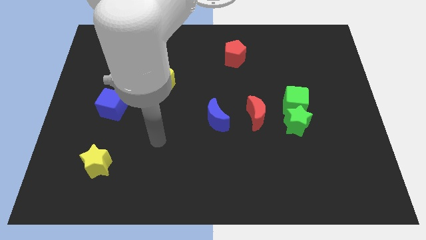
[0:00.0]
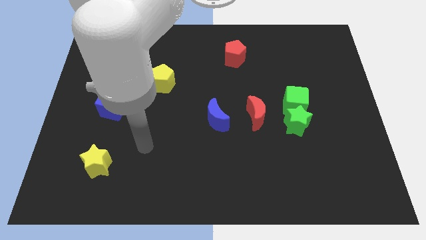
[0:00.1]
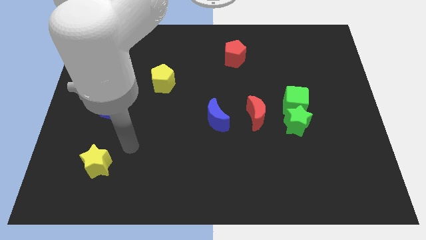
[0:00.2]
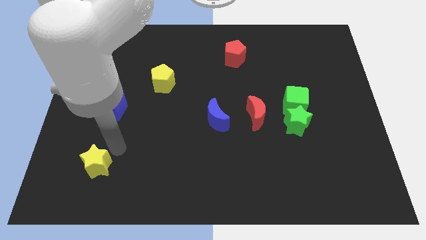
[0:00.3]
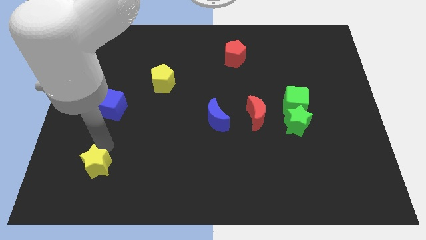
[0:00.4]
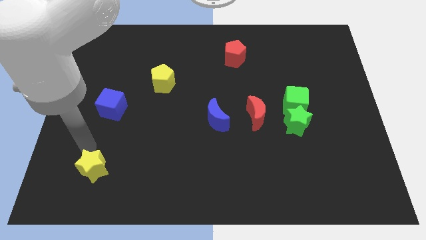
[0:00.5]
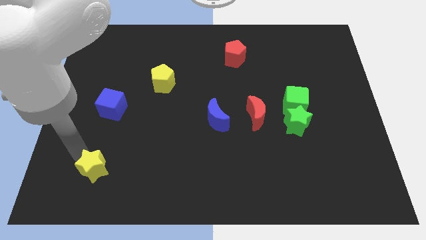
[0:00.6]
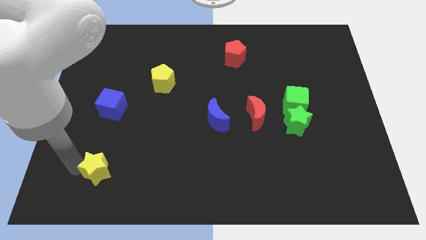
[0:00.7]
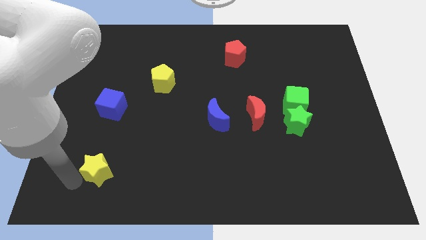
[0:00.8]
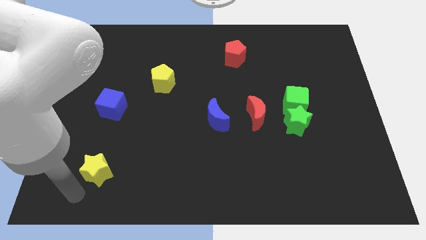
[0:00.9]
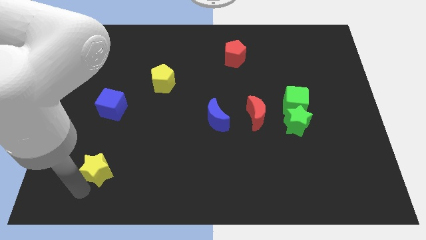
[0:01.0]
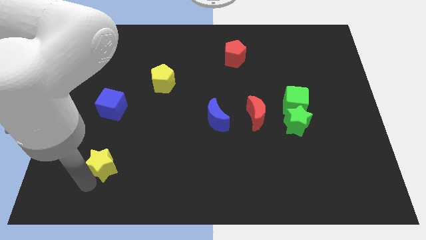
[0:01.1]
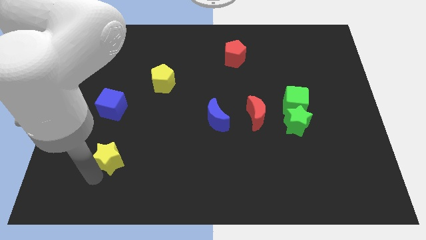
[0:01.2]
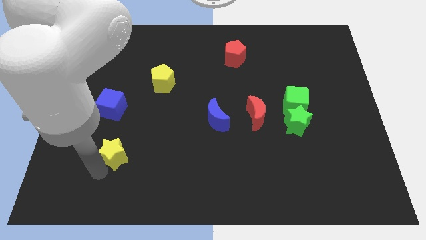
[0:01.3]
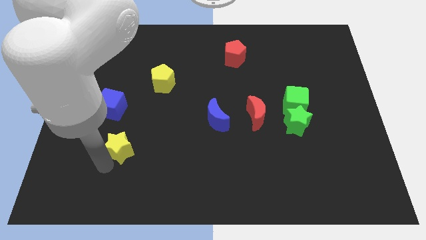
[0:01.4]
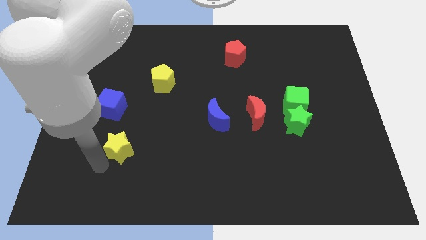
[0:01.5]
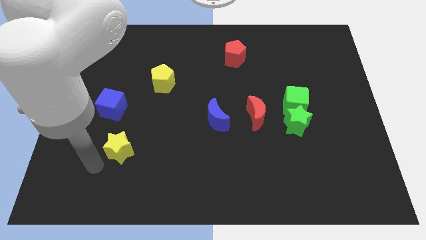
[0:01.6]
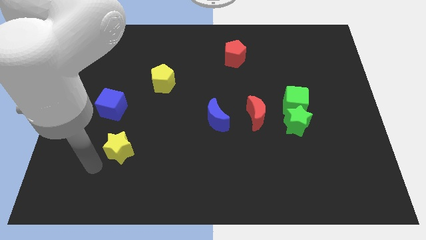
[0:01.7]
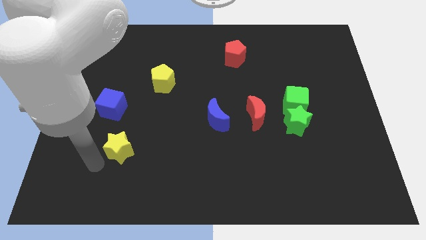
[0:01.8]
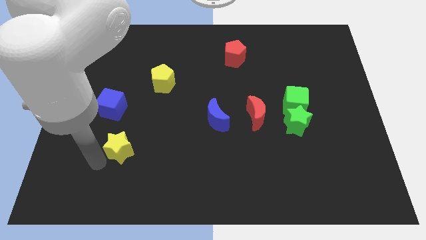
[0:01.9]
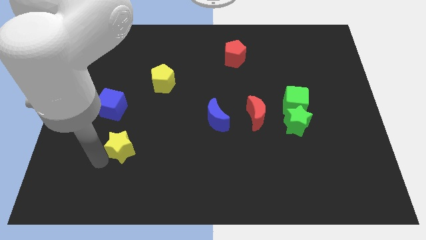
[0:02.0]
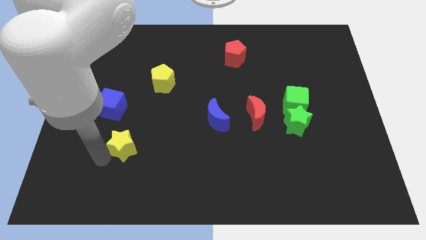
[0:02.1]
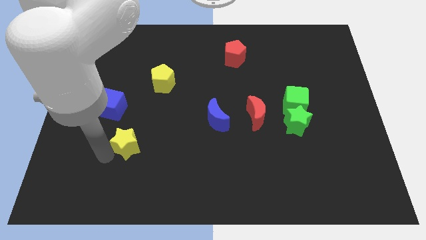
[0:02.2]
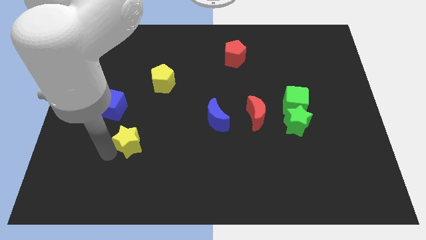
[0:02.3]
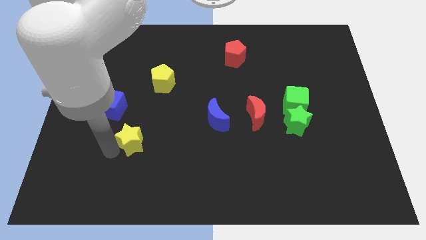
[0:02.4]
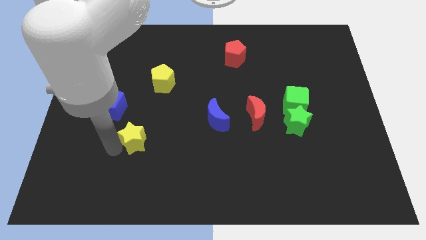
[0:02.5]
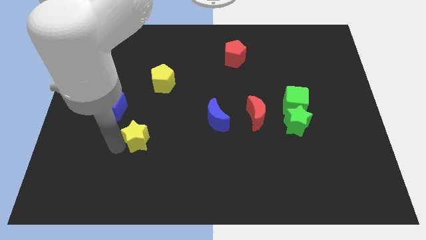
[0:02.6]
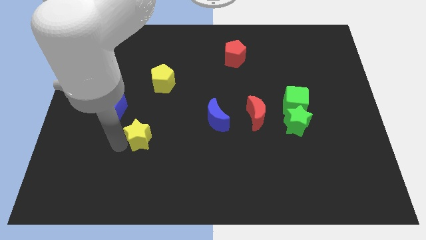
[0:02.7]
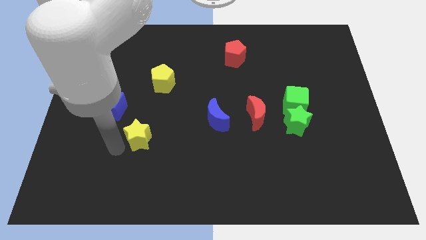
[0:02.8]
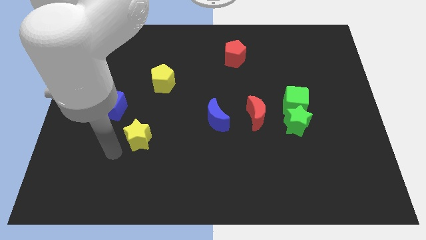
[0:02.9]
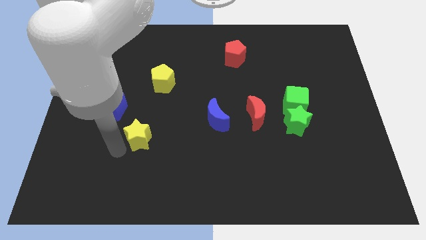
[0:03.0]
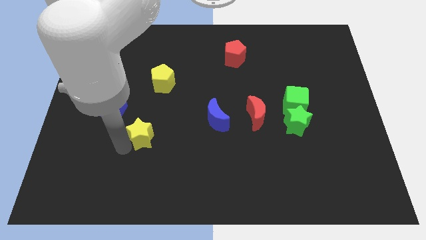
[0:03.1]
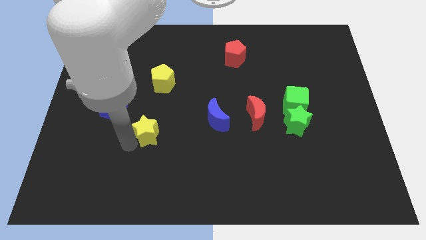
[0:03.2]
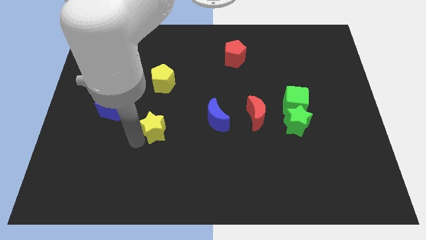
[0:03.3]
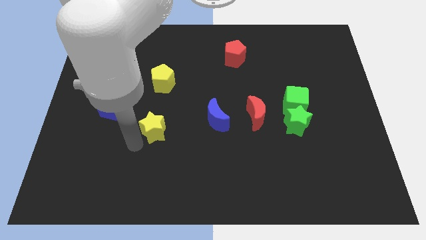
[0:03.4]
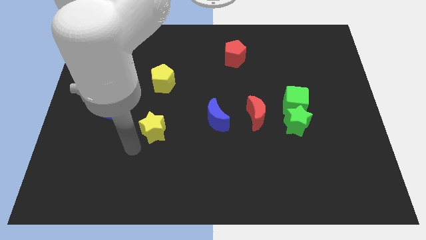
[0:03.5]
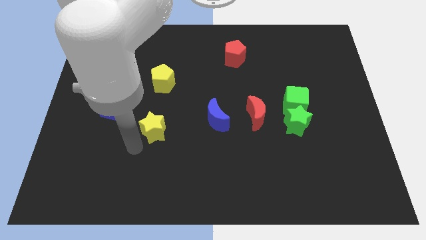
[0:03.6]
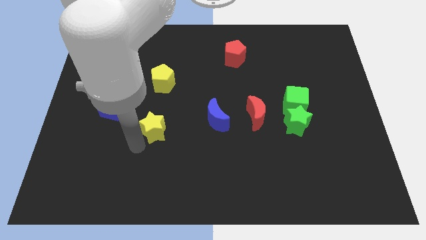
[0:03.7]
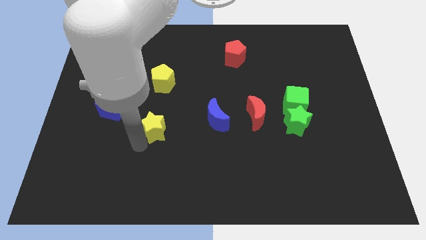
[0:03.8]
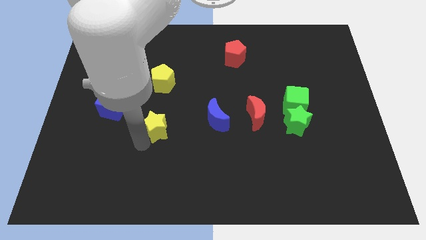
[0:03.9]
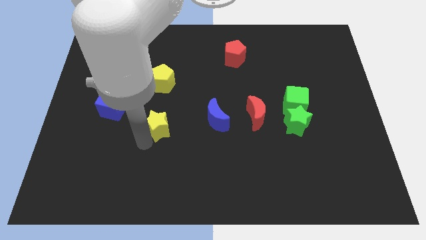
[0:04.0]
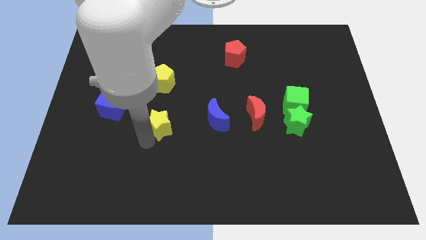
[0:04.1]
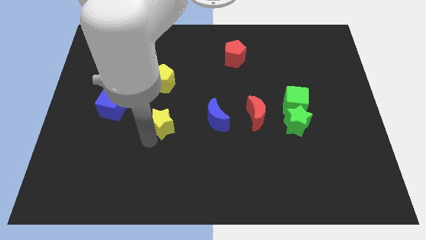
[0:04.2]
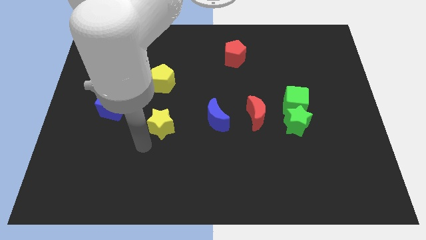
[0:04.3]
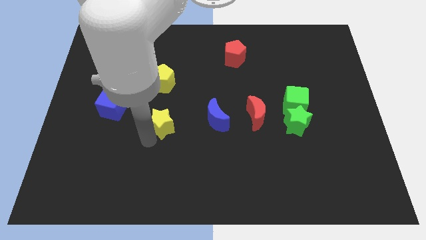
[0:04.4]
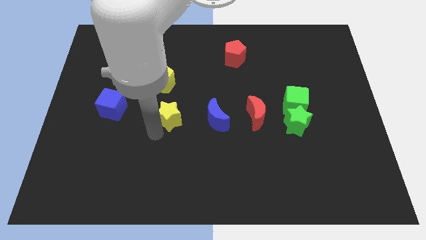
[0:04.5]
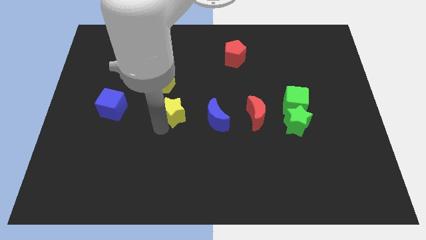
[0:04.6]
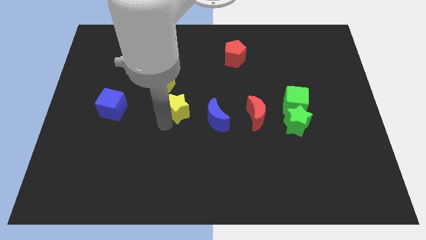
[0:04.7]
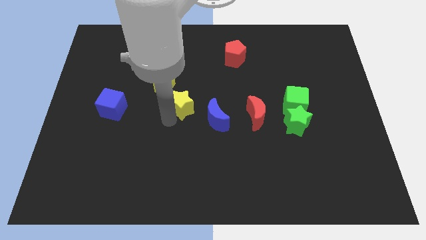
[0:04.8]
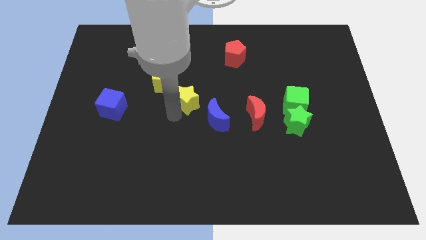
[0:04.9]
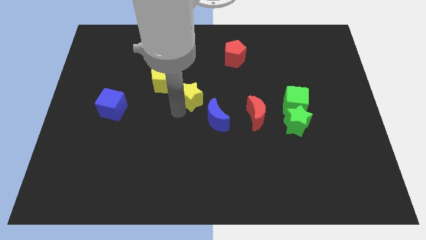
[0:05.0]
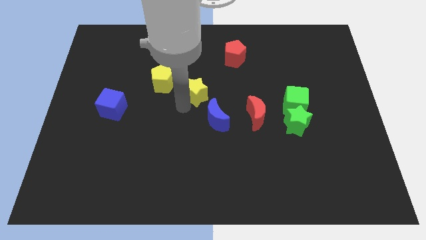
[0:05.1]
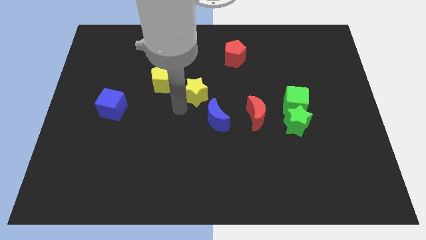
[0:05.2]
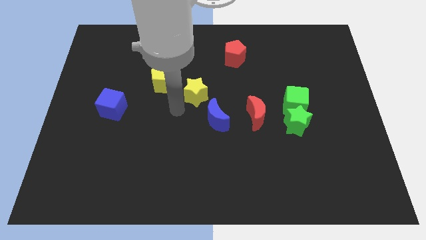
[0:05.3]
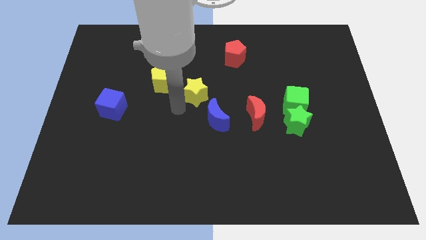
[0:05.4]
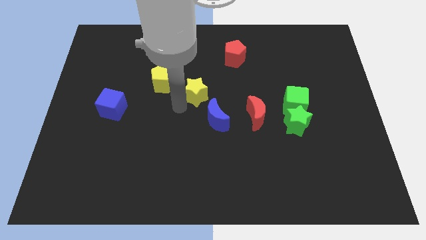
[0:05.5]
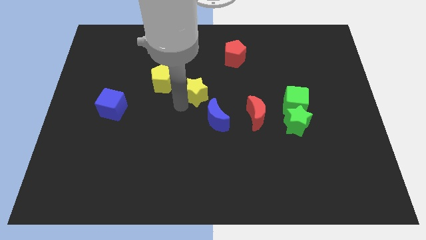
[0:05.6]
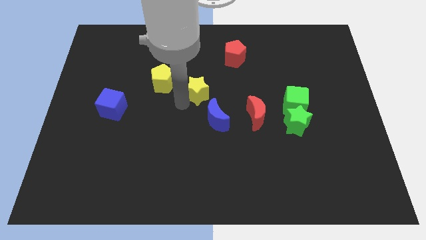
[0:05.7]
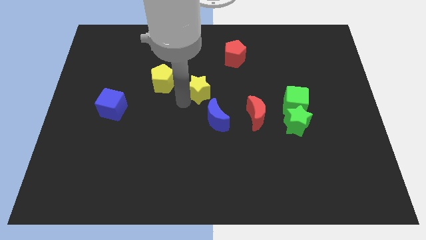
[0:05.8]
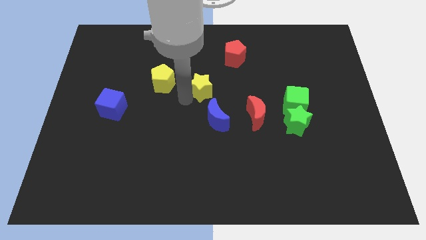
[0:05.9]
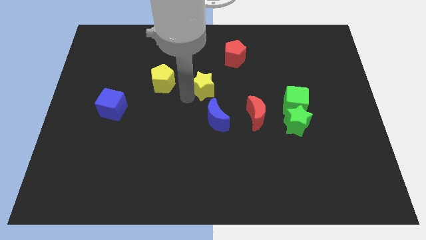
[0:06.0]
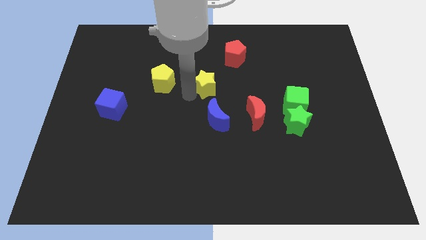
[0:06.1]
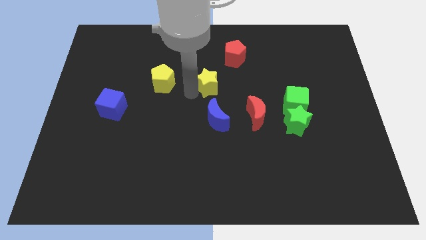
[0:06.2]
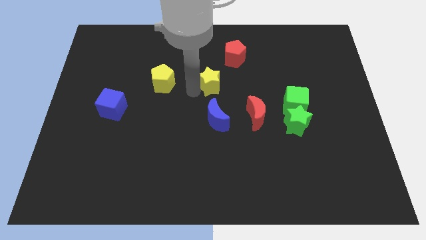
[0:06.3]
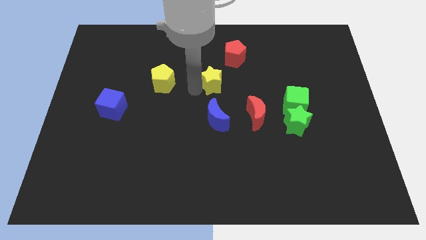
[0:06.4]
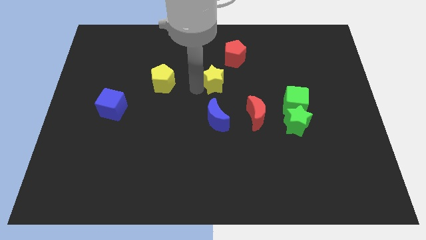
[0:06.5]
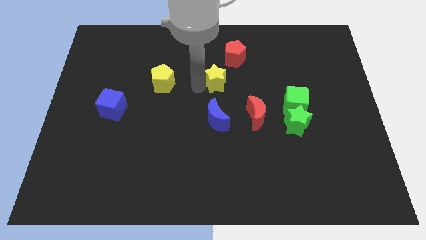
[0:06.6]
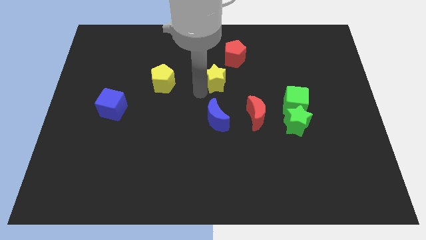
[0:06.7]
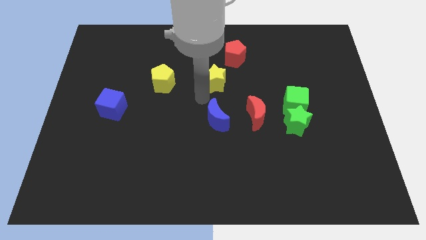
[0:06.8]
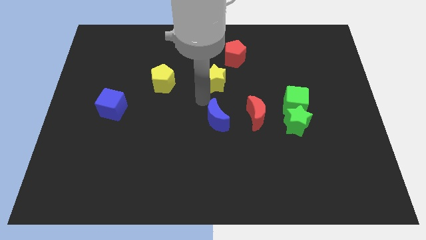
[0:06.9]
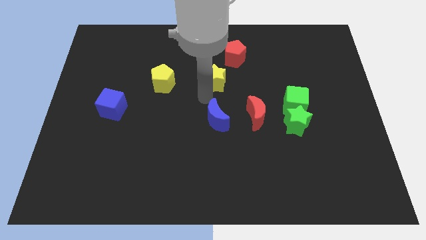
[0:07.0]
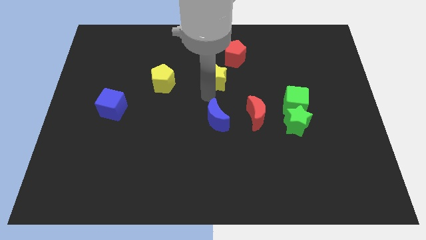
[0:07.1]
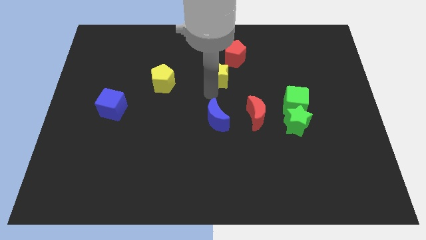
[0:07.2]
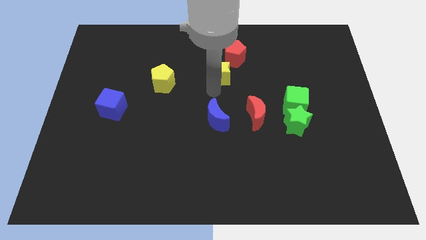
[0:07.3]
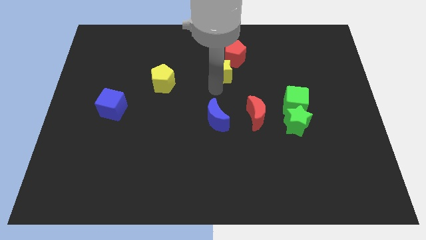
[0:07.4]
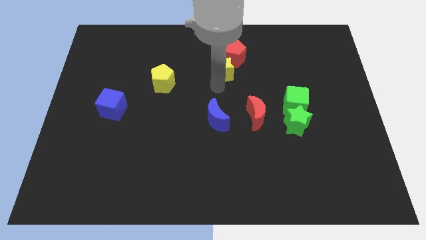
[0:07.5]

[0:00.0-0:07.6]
move the yellow star next to the red pentagon

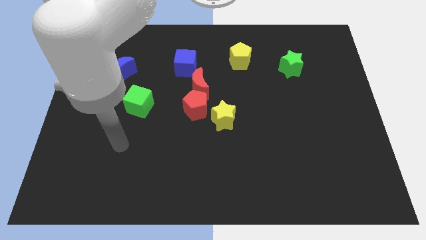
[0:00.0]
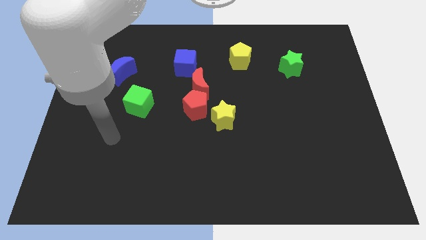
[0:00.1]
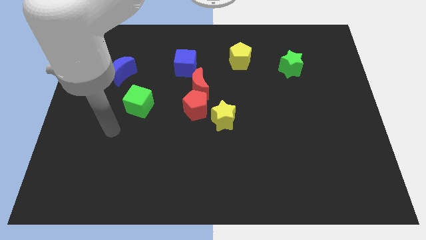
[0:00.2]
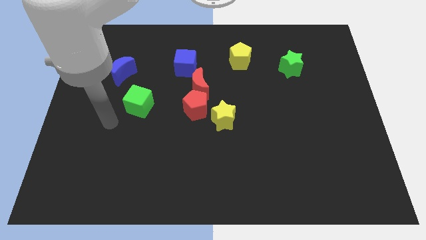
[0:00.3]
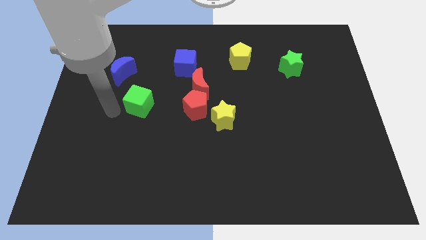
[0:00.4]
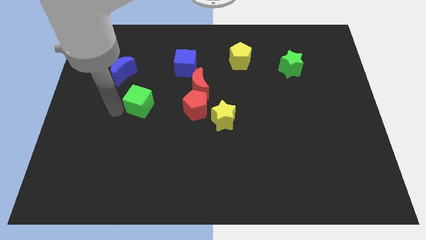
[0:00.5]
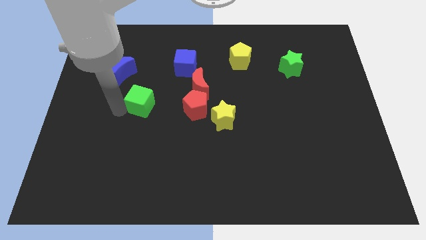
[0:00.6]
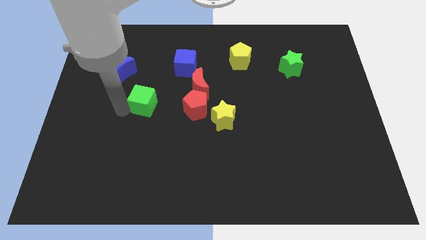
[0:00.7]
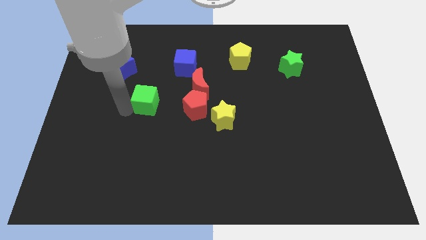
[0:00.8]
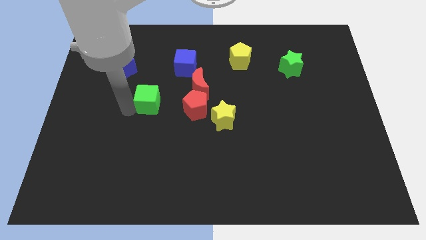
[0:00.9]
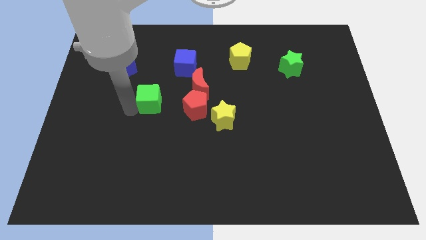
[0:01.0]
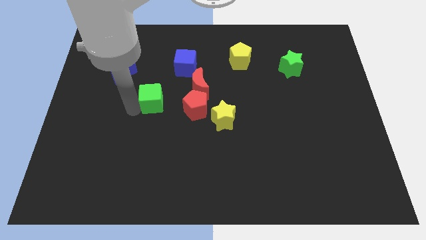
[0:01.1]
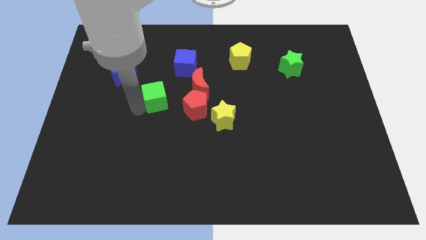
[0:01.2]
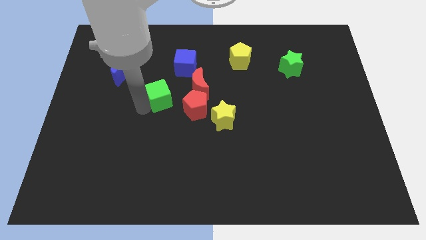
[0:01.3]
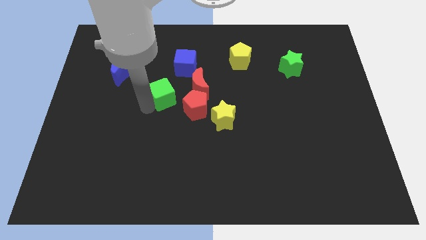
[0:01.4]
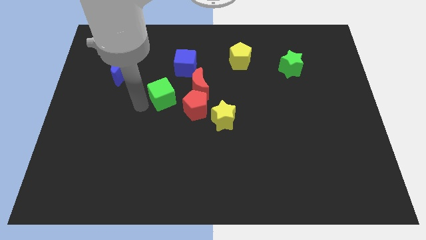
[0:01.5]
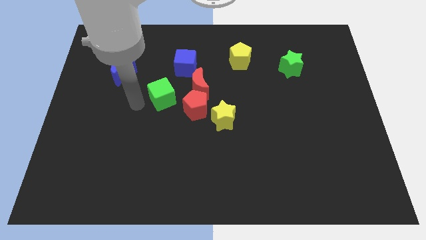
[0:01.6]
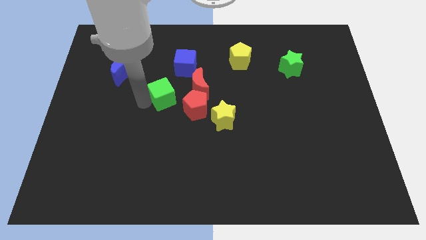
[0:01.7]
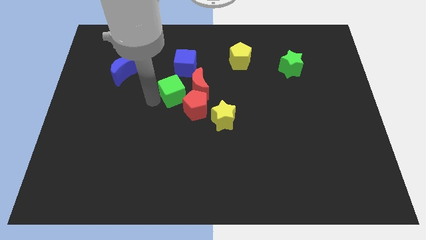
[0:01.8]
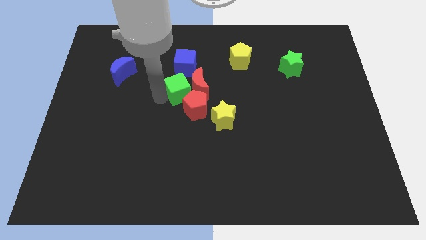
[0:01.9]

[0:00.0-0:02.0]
slide the green cube towards the red moon
